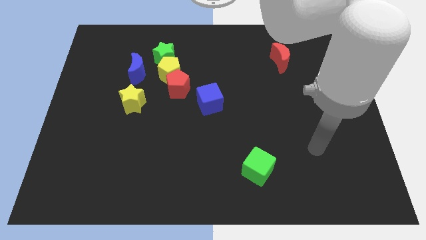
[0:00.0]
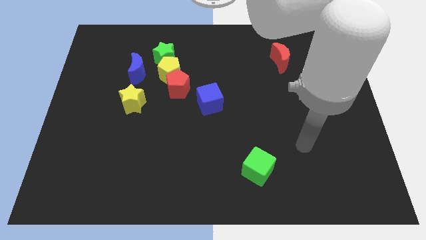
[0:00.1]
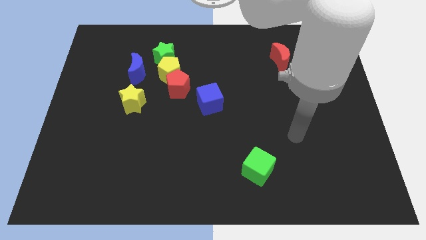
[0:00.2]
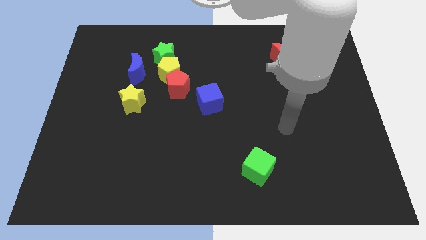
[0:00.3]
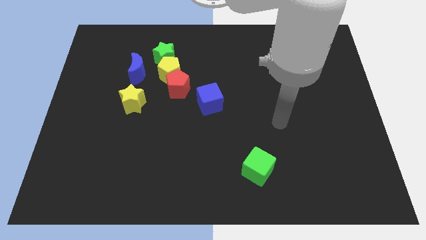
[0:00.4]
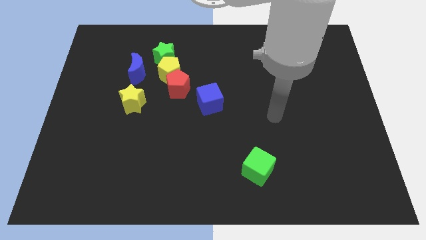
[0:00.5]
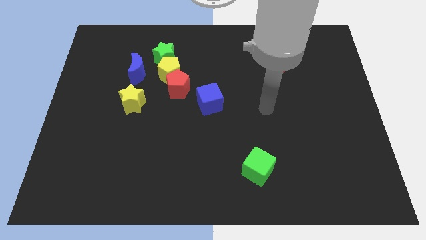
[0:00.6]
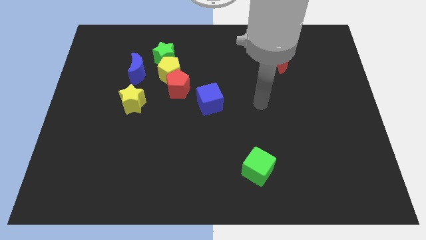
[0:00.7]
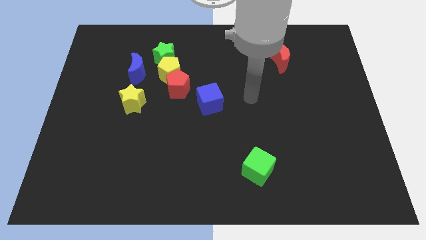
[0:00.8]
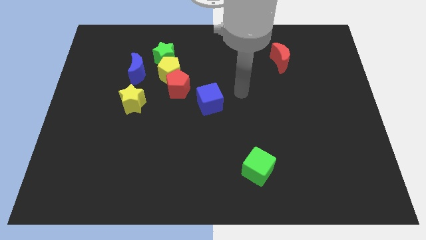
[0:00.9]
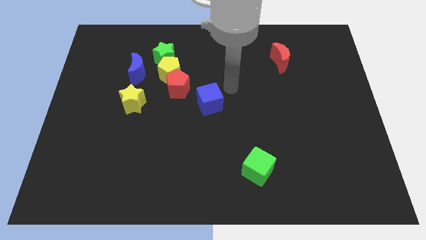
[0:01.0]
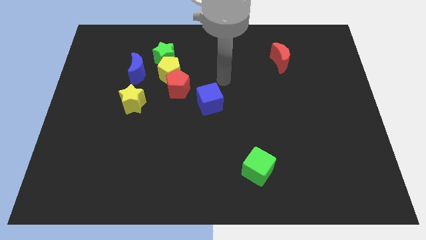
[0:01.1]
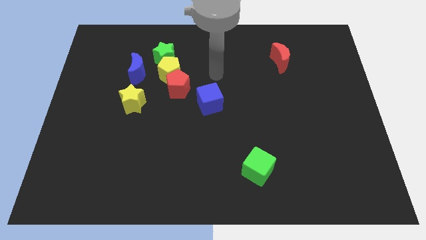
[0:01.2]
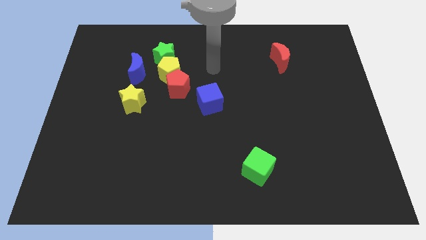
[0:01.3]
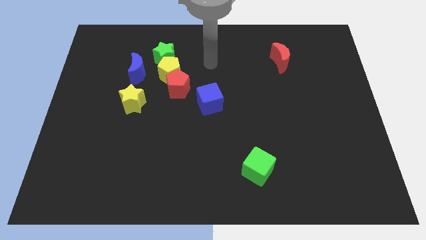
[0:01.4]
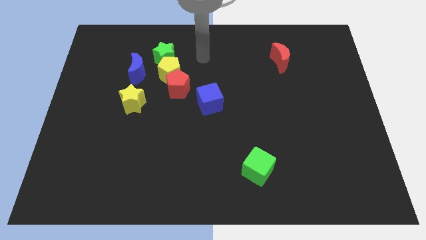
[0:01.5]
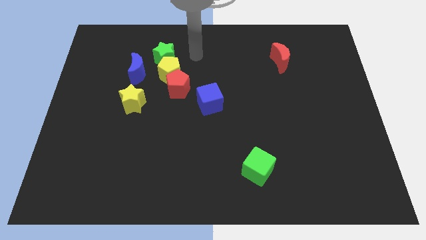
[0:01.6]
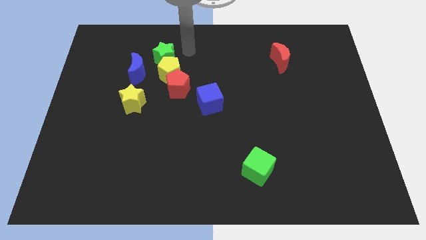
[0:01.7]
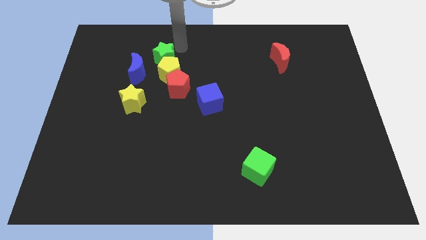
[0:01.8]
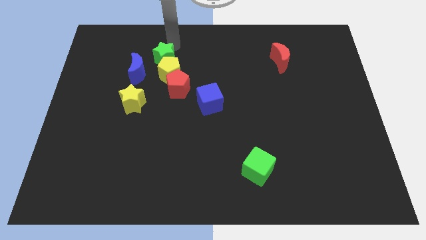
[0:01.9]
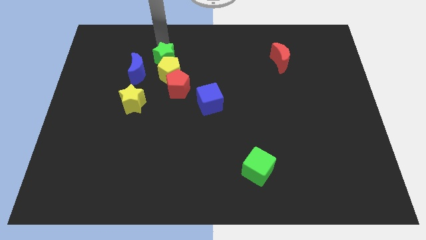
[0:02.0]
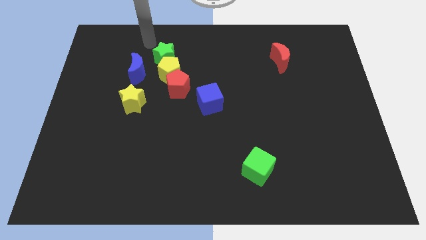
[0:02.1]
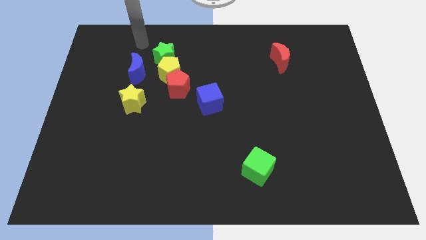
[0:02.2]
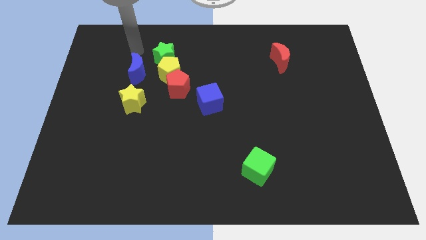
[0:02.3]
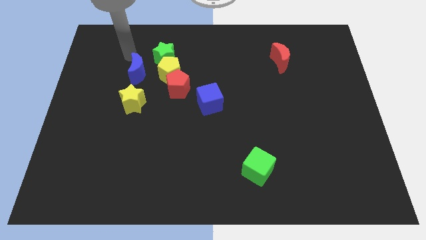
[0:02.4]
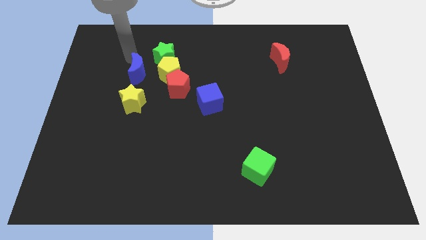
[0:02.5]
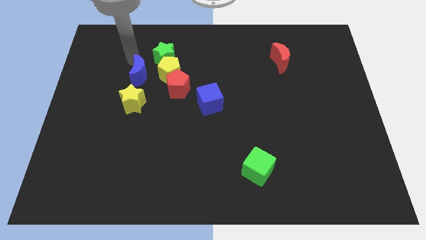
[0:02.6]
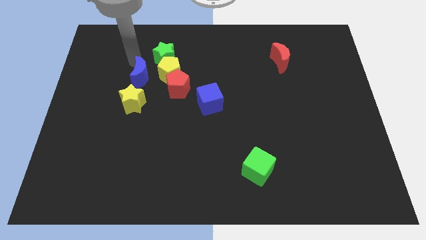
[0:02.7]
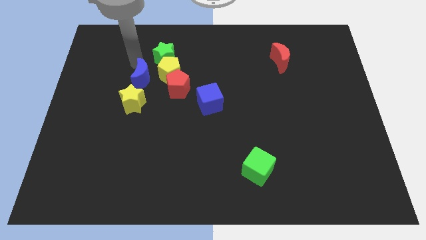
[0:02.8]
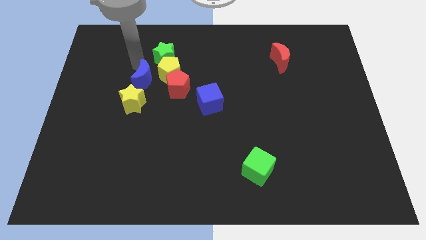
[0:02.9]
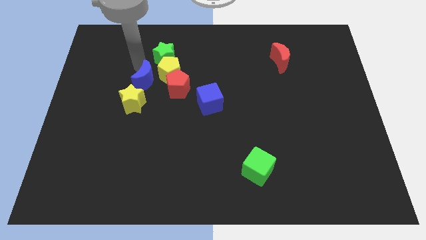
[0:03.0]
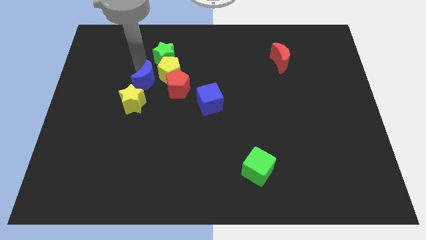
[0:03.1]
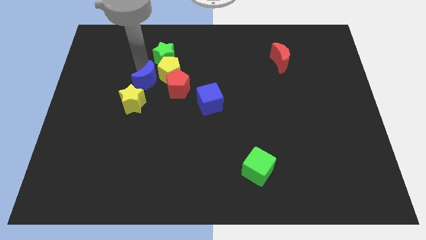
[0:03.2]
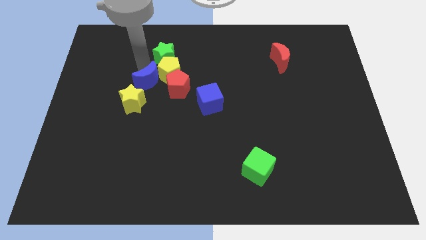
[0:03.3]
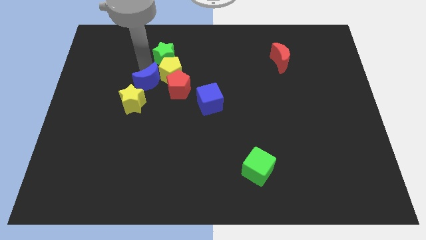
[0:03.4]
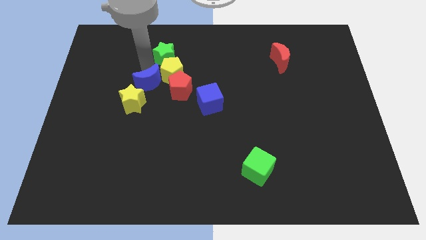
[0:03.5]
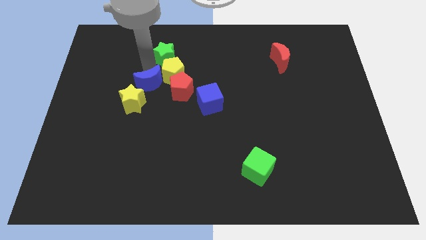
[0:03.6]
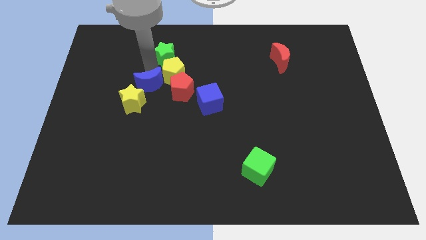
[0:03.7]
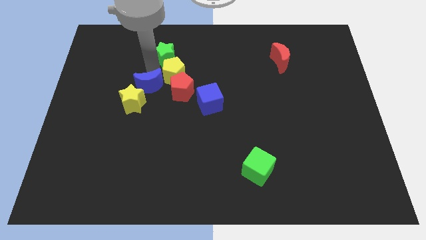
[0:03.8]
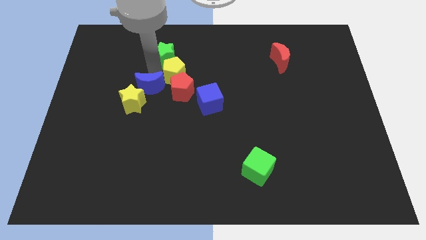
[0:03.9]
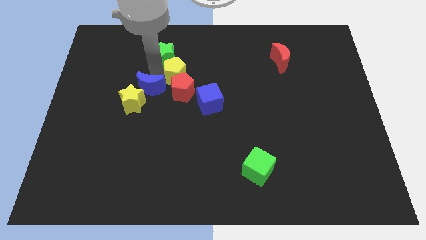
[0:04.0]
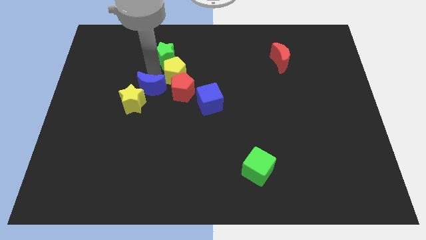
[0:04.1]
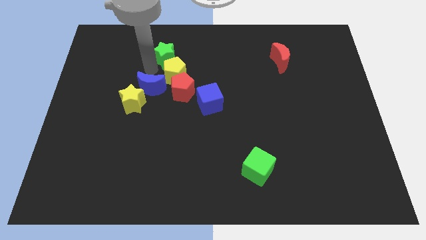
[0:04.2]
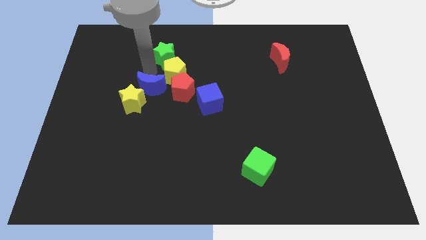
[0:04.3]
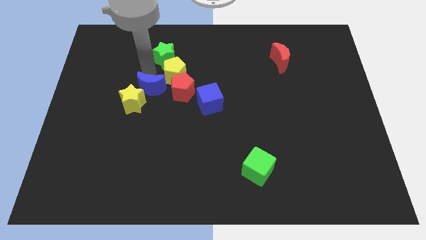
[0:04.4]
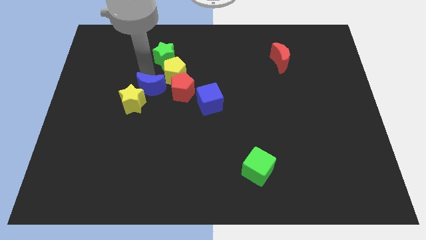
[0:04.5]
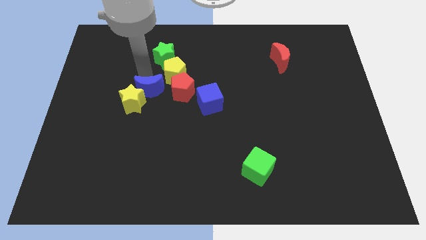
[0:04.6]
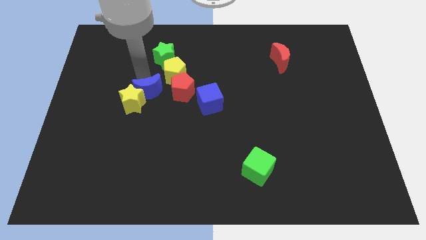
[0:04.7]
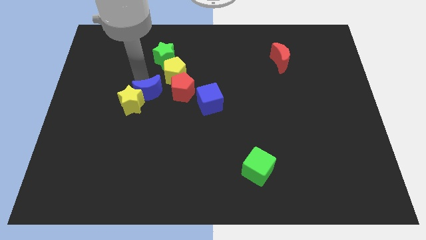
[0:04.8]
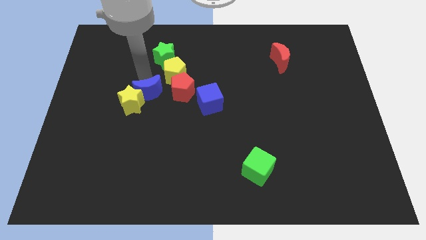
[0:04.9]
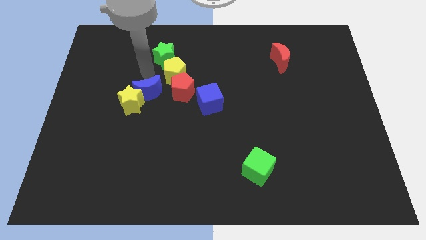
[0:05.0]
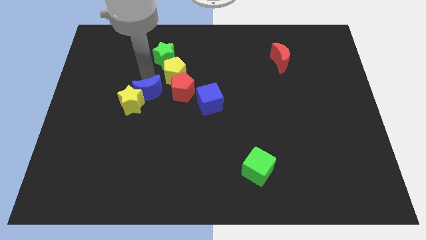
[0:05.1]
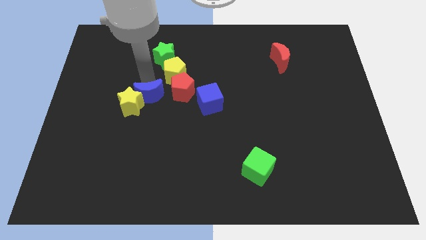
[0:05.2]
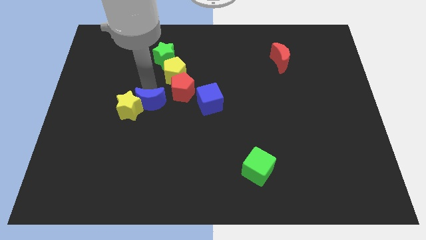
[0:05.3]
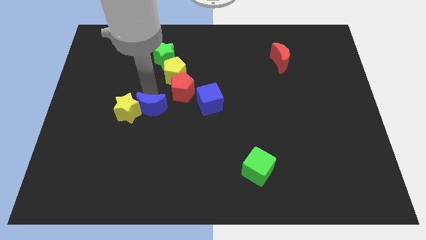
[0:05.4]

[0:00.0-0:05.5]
move the blue moon to the bottom right of the yellow star

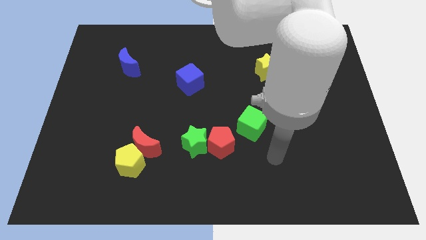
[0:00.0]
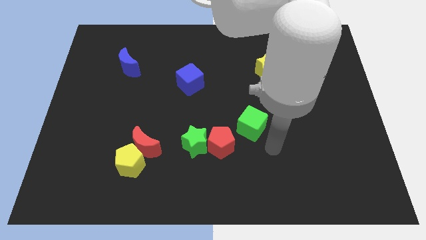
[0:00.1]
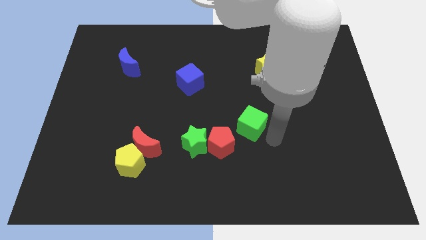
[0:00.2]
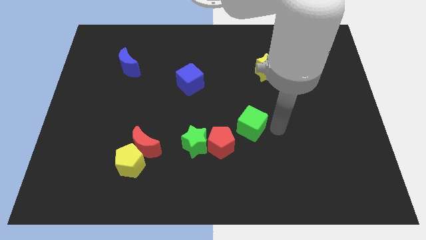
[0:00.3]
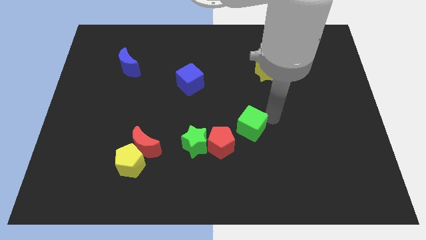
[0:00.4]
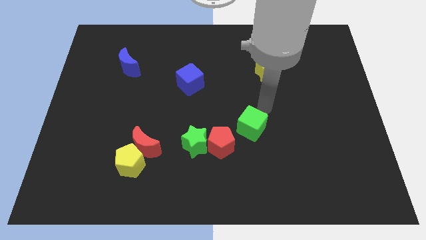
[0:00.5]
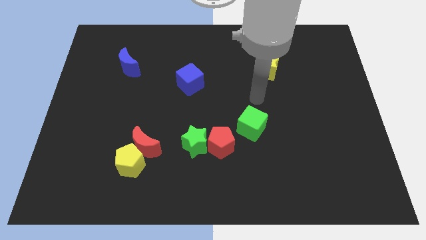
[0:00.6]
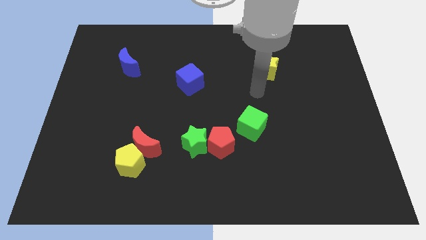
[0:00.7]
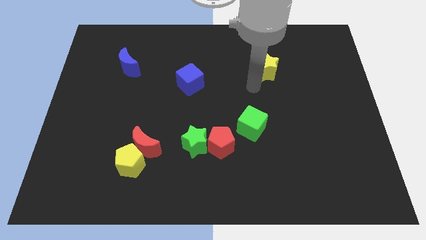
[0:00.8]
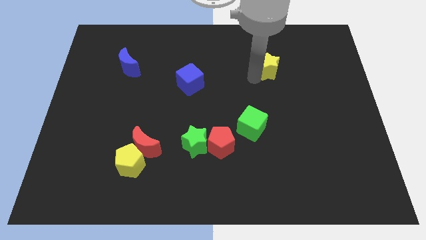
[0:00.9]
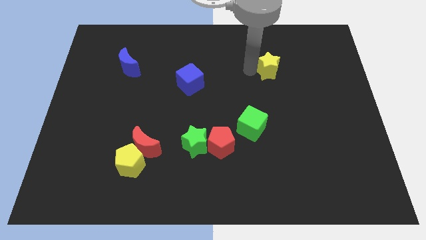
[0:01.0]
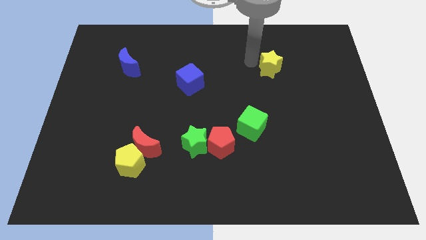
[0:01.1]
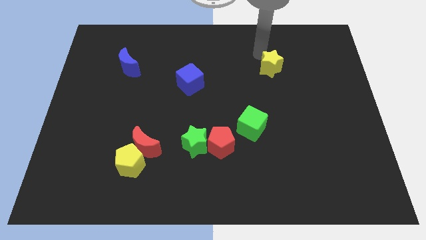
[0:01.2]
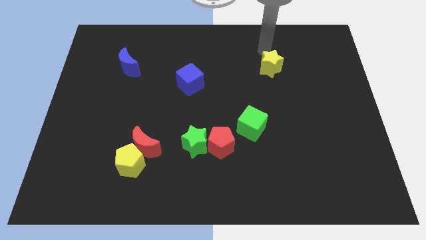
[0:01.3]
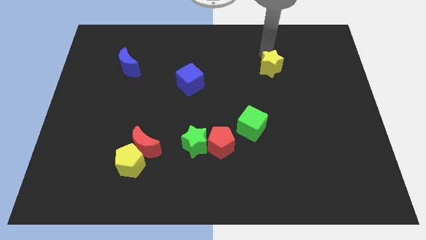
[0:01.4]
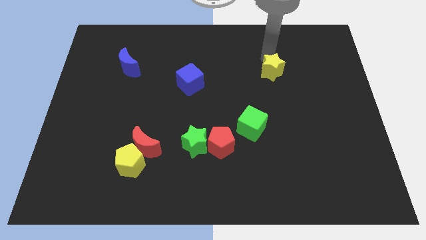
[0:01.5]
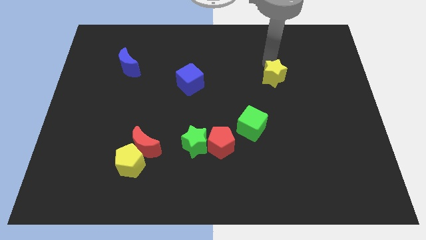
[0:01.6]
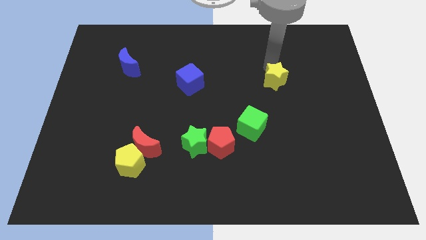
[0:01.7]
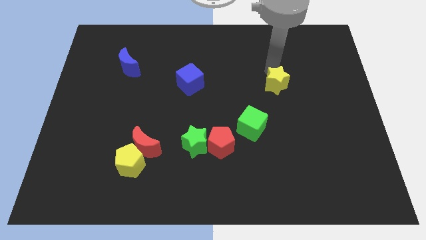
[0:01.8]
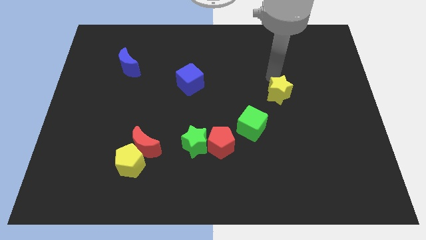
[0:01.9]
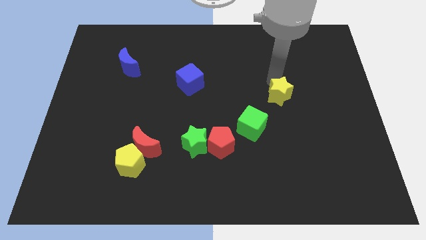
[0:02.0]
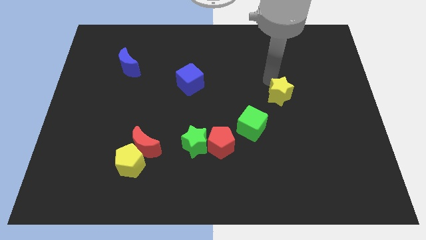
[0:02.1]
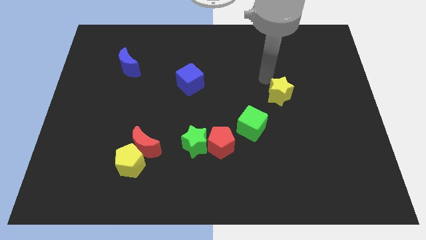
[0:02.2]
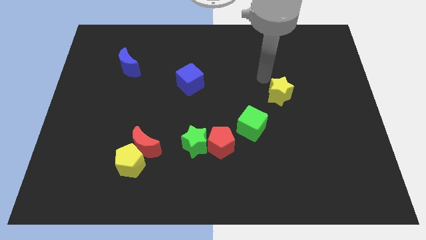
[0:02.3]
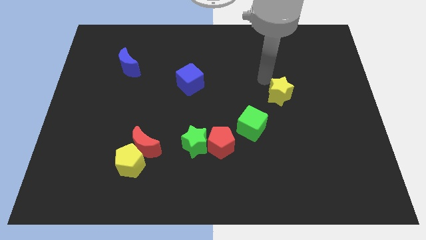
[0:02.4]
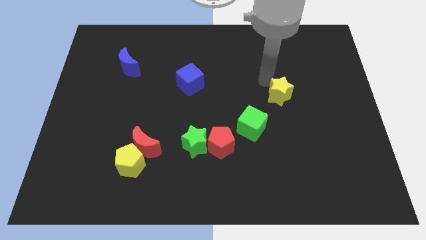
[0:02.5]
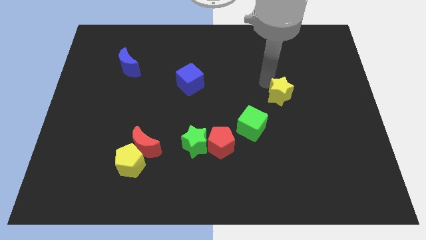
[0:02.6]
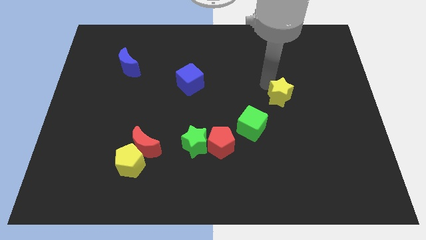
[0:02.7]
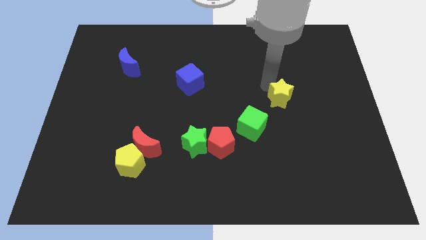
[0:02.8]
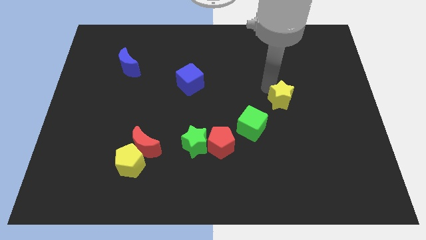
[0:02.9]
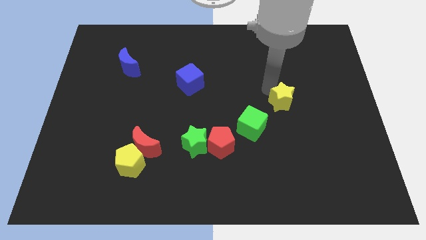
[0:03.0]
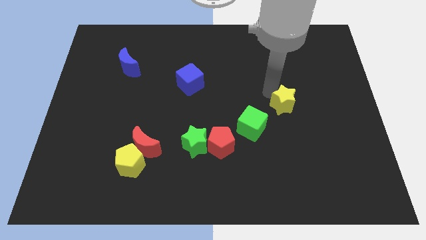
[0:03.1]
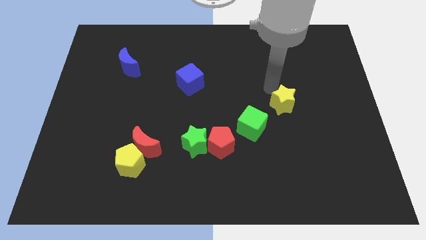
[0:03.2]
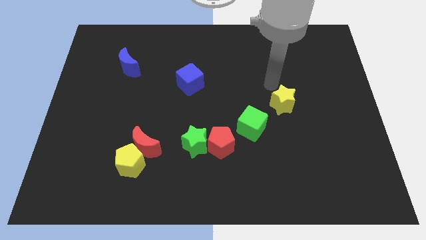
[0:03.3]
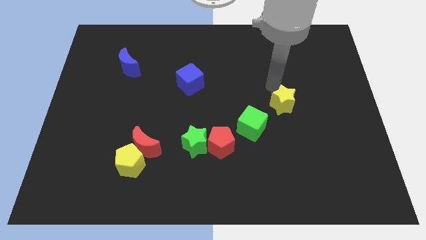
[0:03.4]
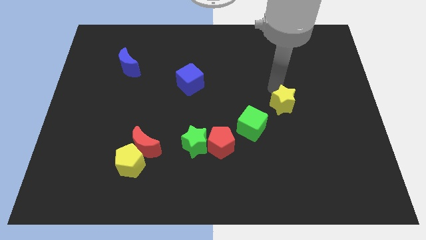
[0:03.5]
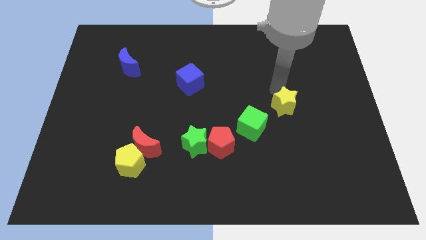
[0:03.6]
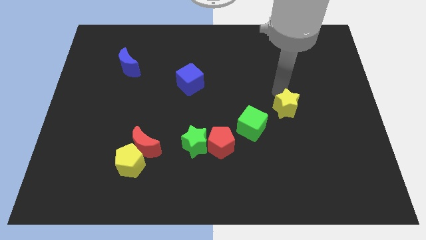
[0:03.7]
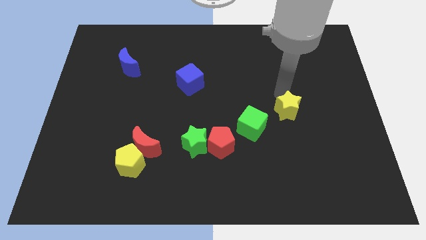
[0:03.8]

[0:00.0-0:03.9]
put the yellow star to the right of the green cube
